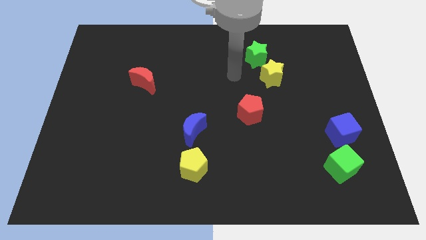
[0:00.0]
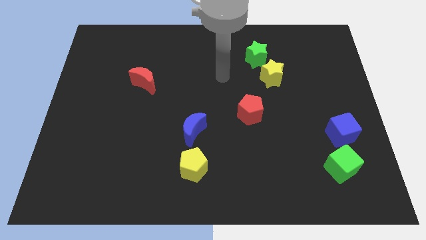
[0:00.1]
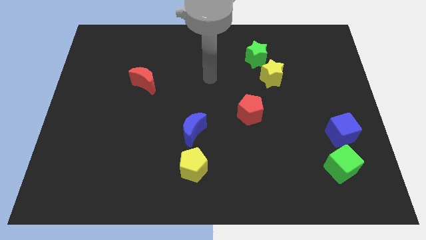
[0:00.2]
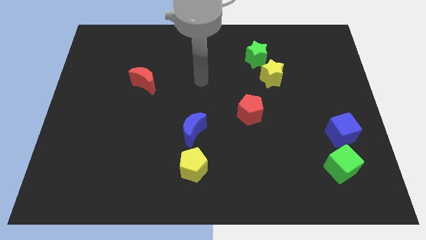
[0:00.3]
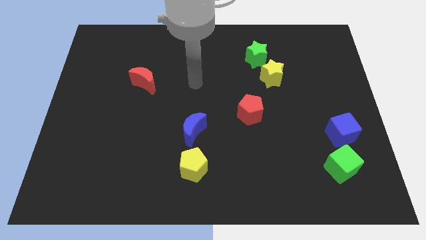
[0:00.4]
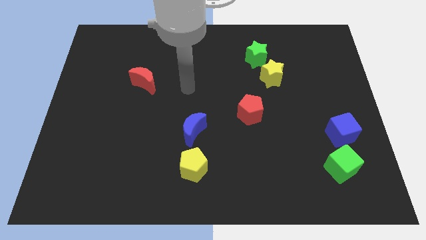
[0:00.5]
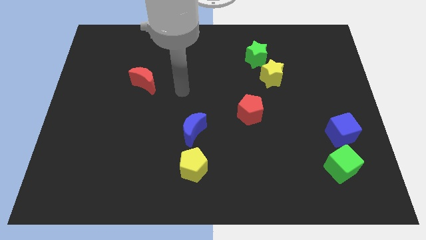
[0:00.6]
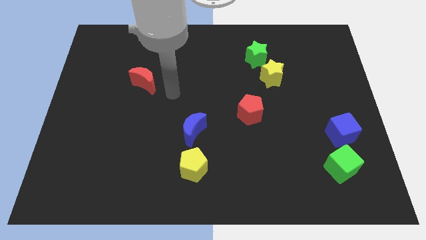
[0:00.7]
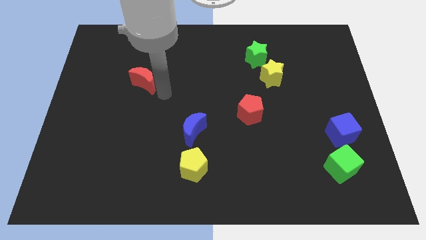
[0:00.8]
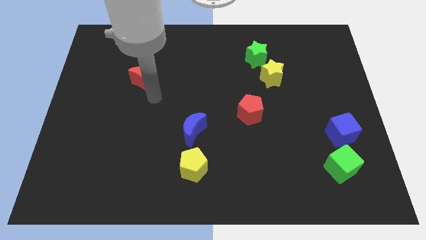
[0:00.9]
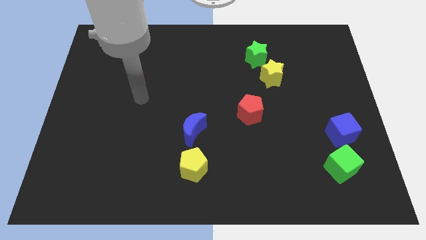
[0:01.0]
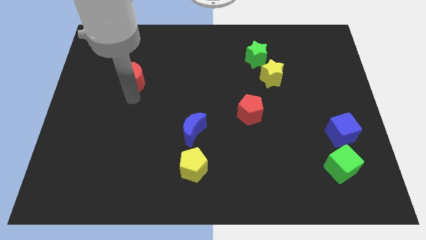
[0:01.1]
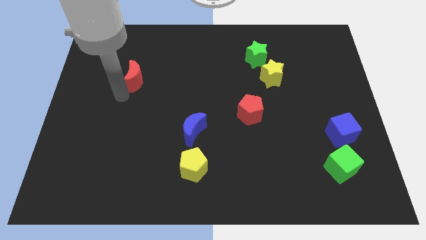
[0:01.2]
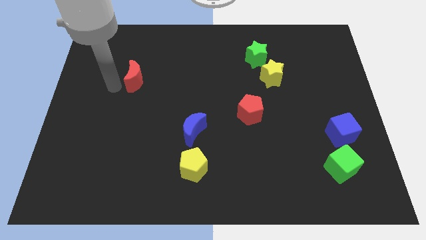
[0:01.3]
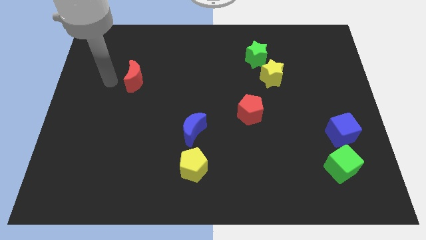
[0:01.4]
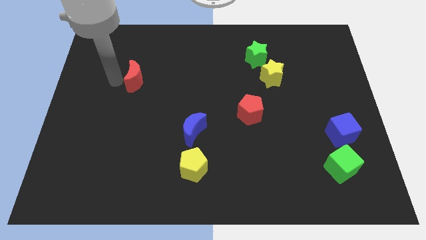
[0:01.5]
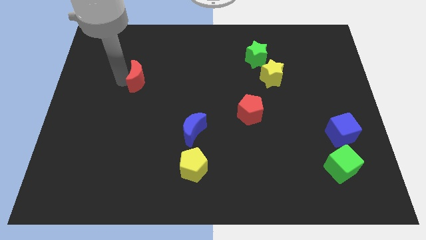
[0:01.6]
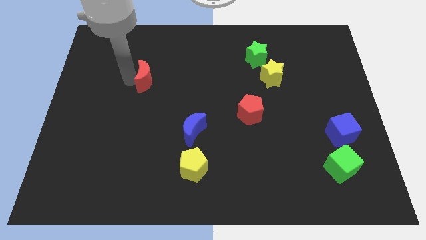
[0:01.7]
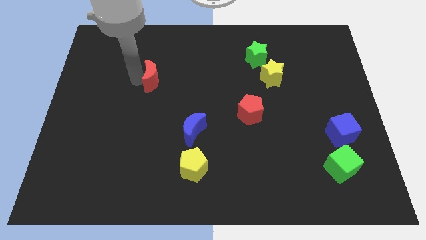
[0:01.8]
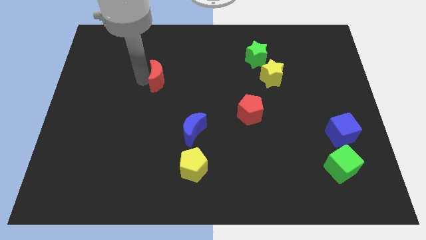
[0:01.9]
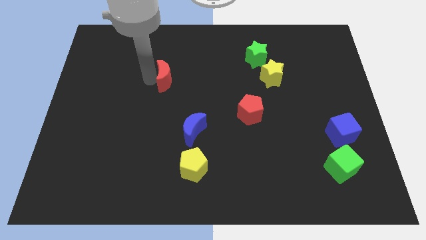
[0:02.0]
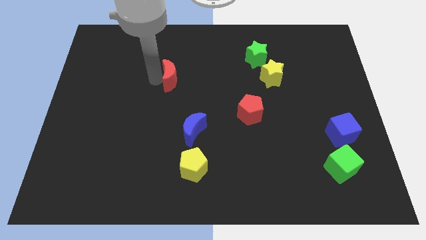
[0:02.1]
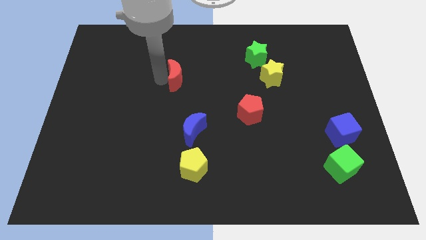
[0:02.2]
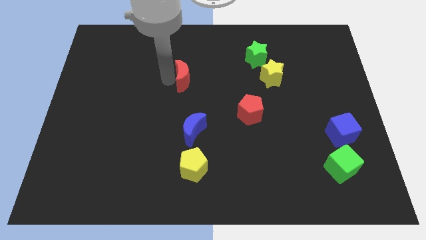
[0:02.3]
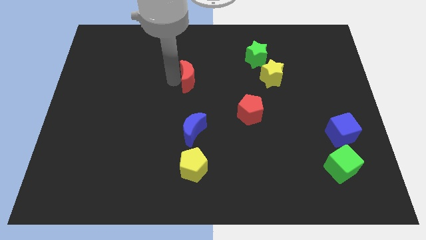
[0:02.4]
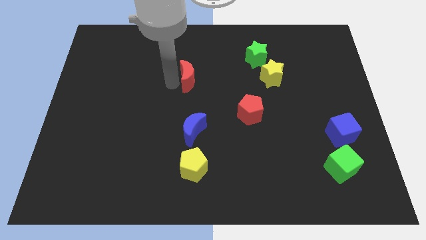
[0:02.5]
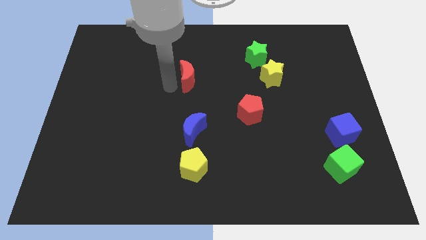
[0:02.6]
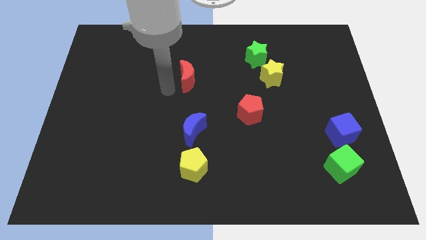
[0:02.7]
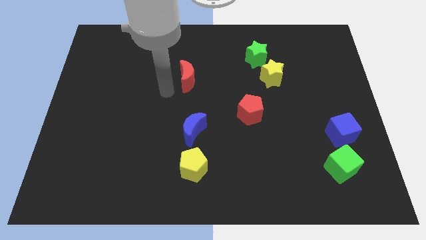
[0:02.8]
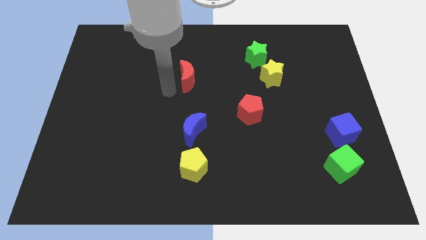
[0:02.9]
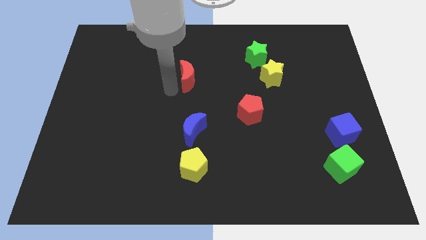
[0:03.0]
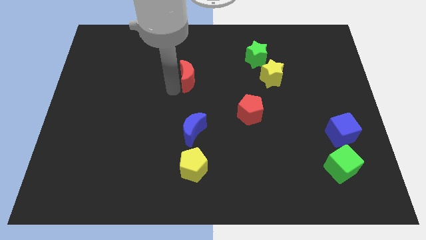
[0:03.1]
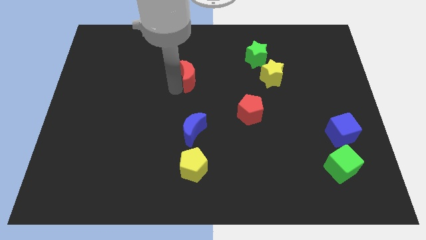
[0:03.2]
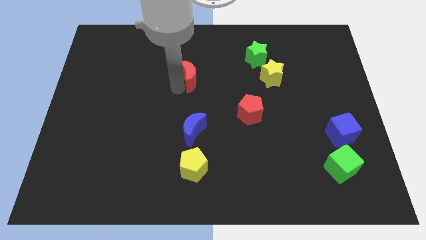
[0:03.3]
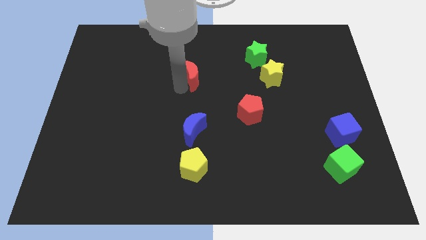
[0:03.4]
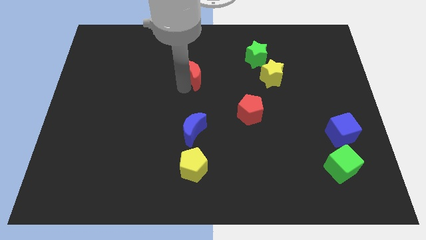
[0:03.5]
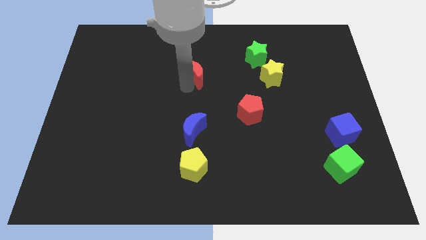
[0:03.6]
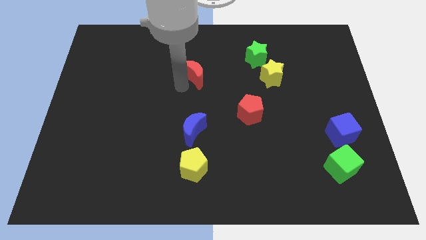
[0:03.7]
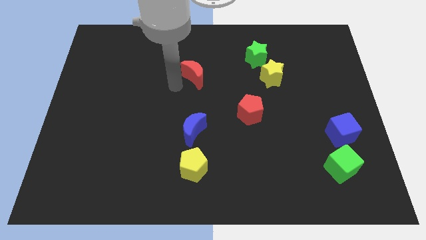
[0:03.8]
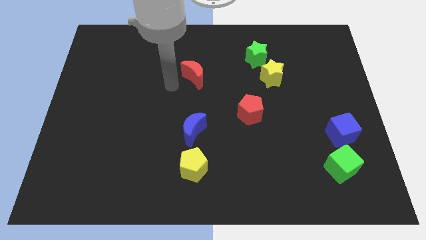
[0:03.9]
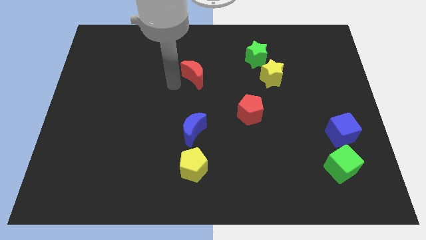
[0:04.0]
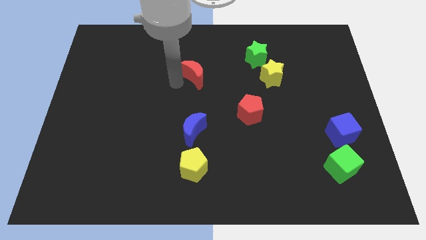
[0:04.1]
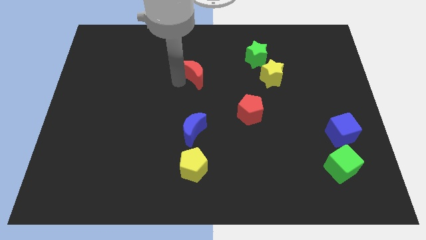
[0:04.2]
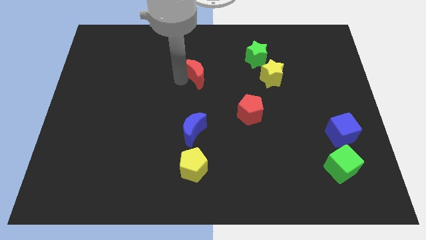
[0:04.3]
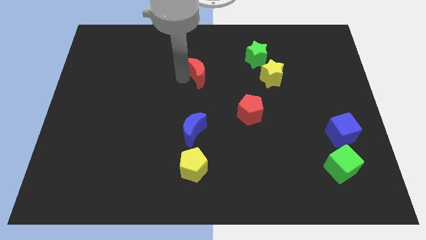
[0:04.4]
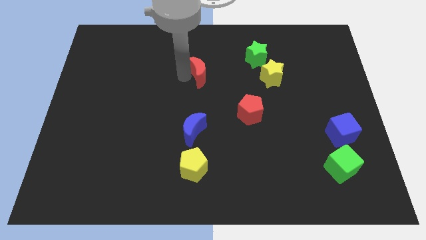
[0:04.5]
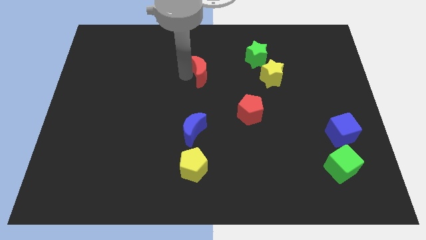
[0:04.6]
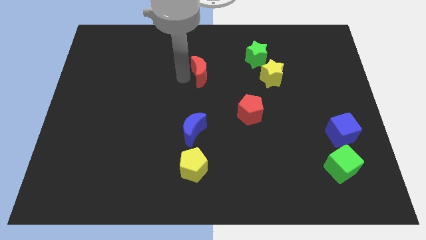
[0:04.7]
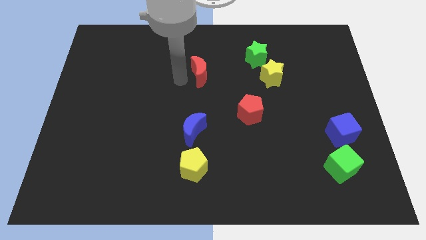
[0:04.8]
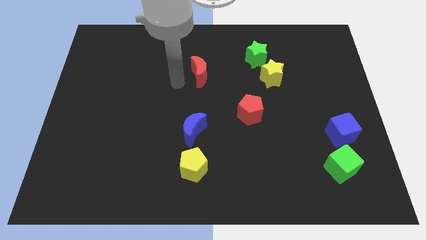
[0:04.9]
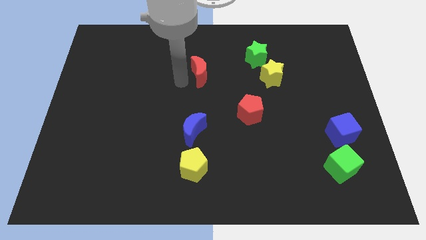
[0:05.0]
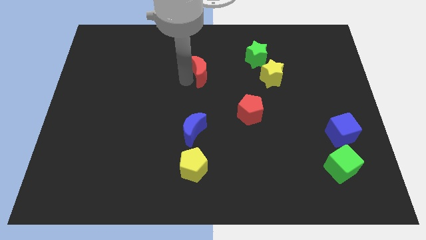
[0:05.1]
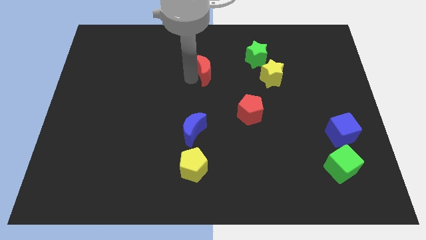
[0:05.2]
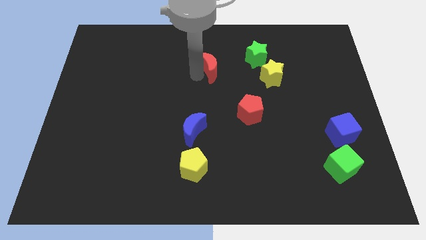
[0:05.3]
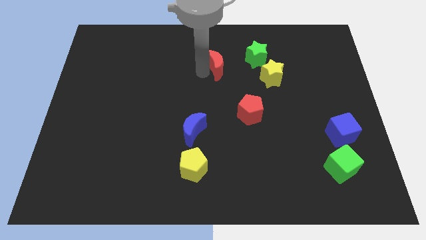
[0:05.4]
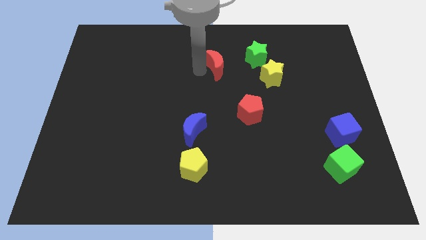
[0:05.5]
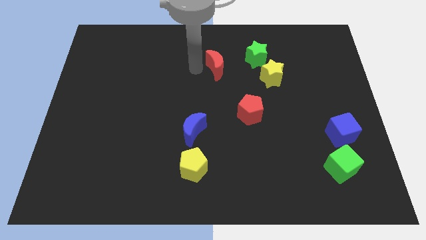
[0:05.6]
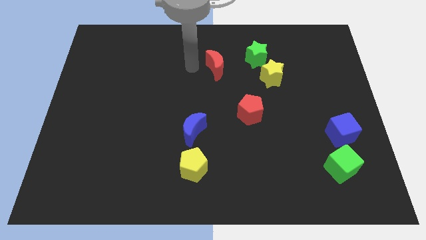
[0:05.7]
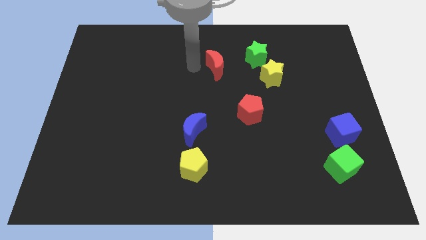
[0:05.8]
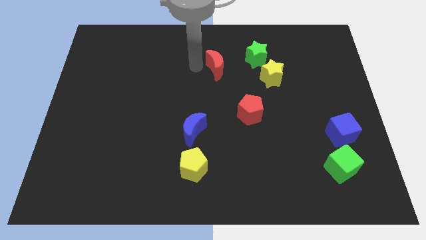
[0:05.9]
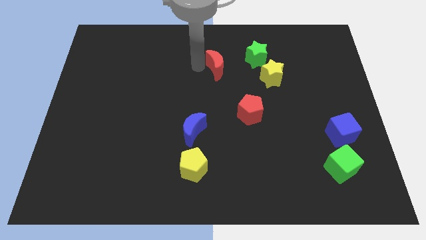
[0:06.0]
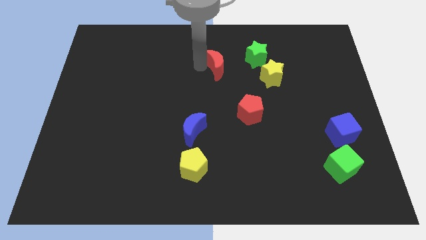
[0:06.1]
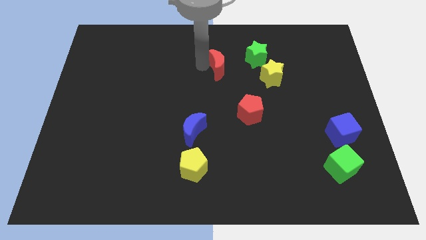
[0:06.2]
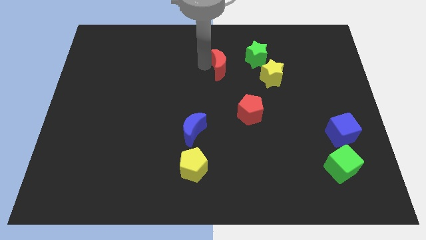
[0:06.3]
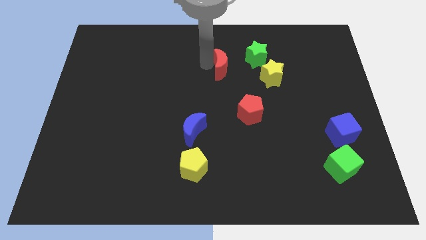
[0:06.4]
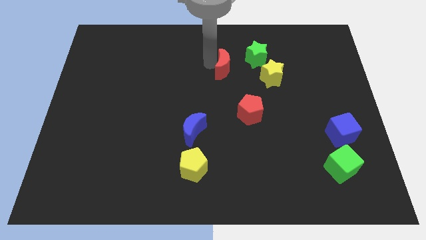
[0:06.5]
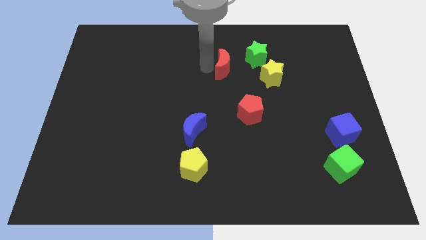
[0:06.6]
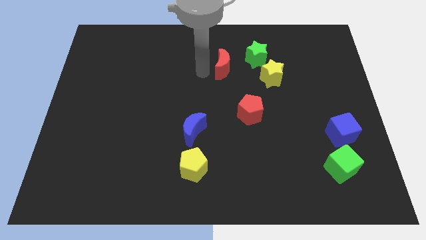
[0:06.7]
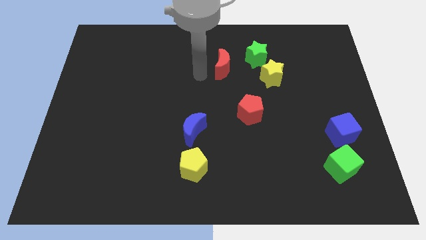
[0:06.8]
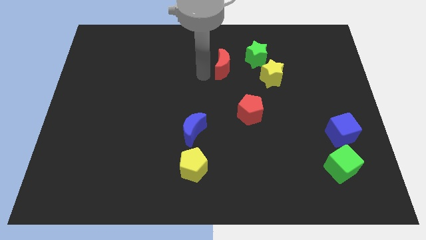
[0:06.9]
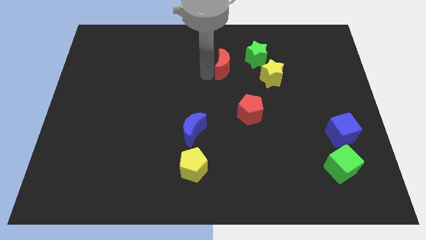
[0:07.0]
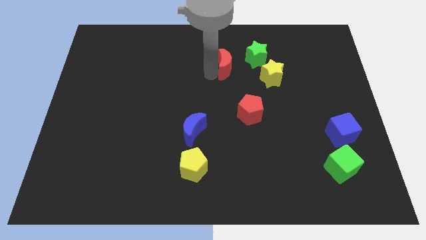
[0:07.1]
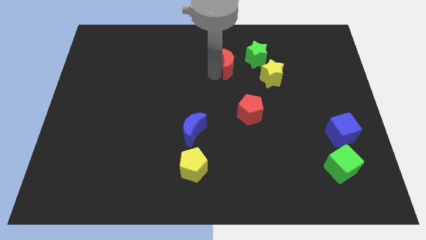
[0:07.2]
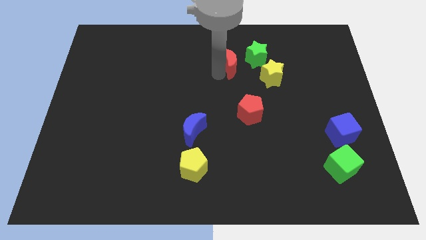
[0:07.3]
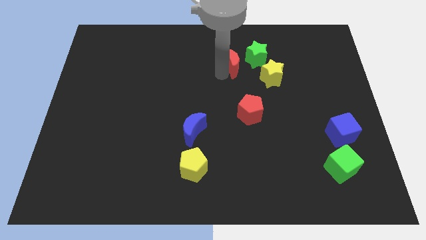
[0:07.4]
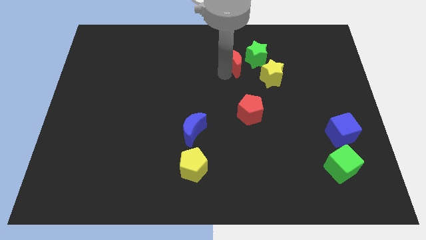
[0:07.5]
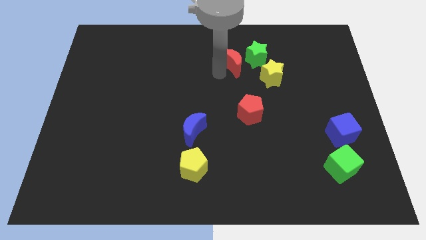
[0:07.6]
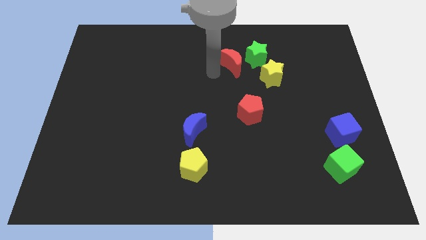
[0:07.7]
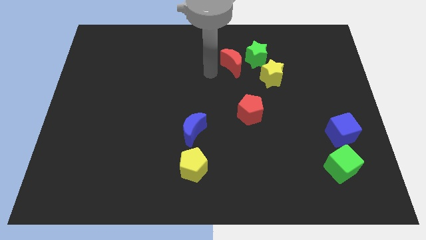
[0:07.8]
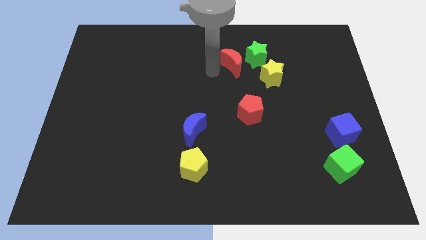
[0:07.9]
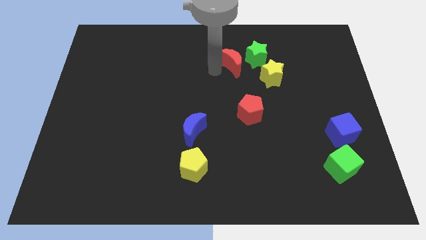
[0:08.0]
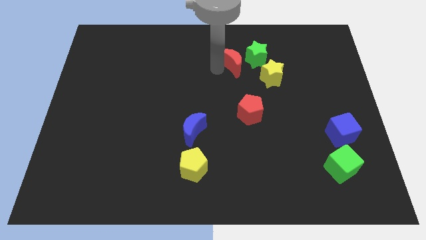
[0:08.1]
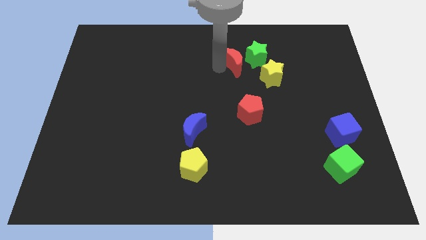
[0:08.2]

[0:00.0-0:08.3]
put the red moon close to the green star
